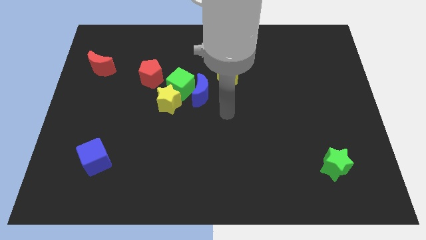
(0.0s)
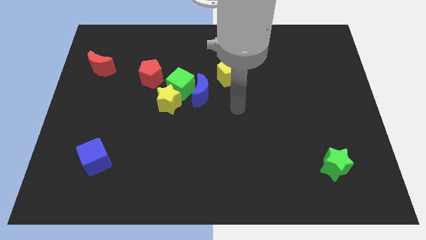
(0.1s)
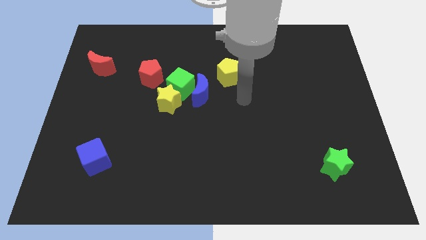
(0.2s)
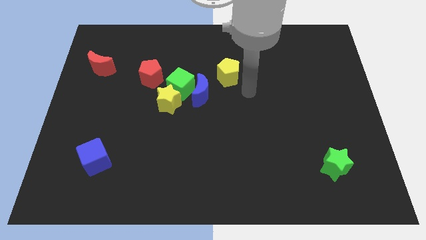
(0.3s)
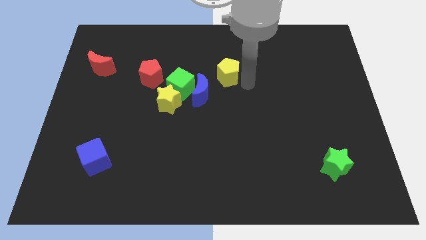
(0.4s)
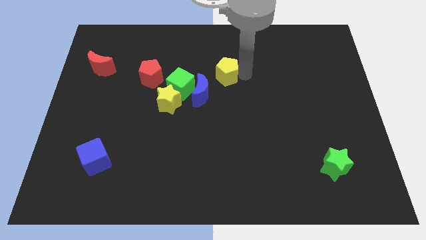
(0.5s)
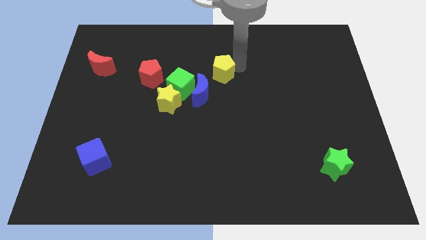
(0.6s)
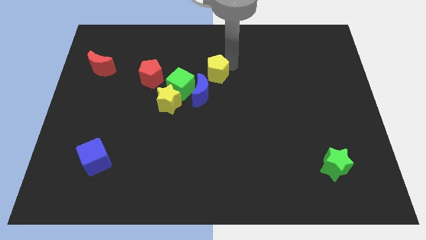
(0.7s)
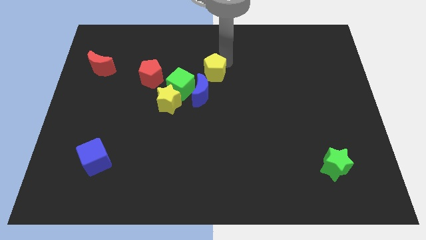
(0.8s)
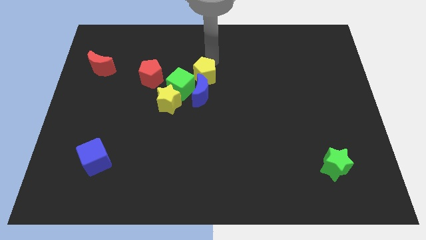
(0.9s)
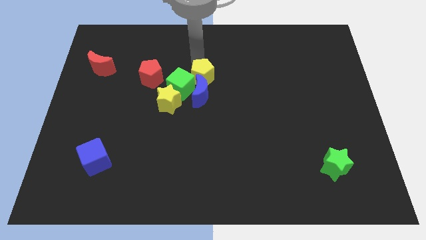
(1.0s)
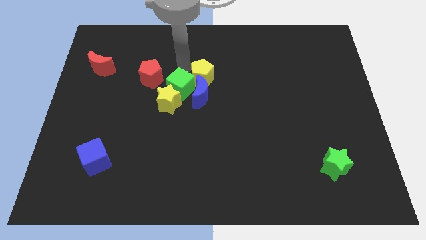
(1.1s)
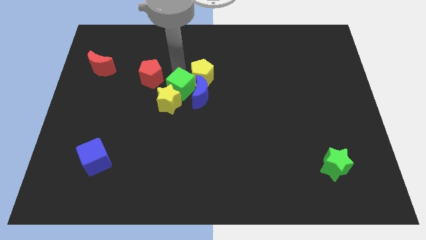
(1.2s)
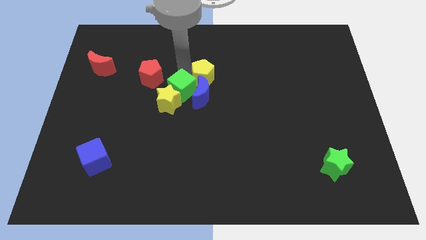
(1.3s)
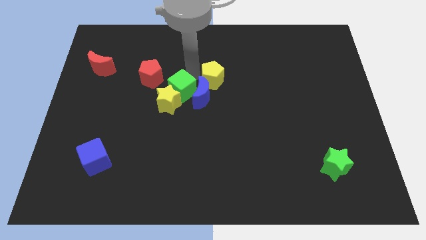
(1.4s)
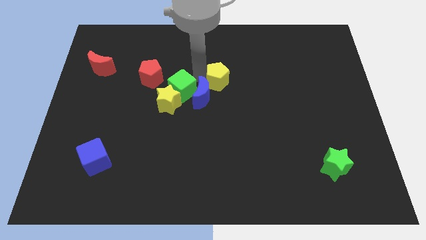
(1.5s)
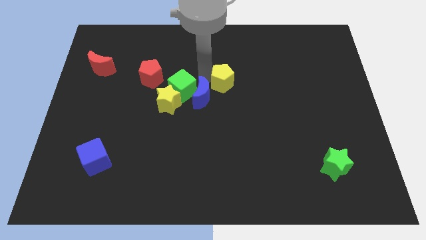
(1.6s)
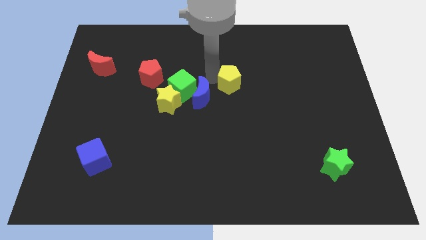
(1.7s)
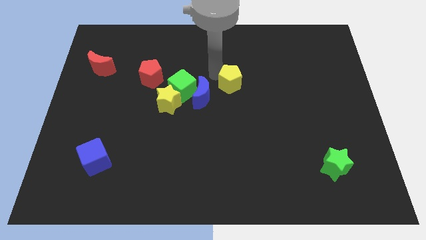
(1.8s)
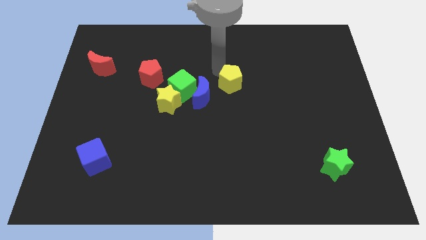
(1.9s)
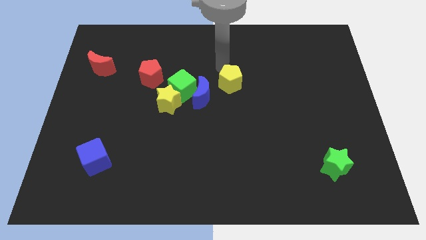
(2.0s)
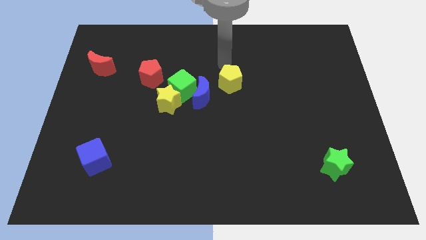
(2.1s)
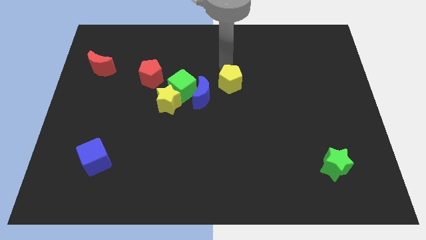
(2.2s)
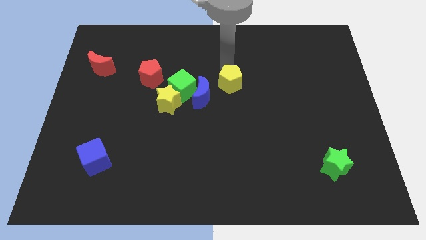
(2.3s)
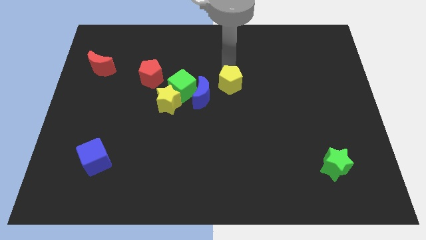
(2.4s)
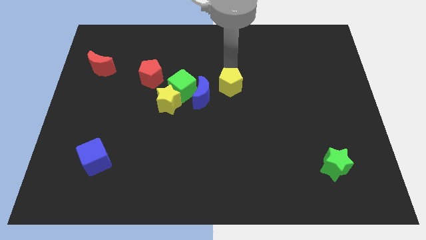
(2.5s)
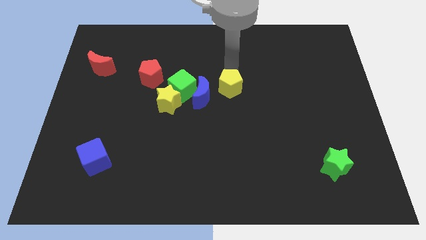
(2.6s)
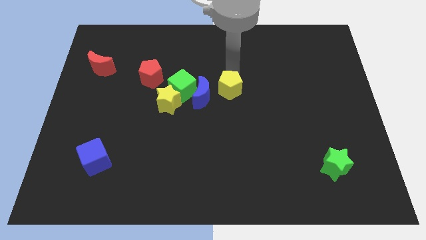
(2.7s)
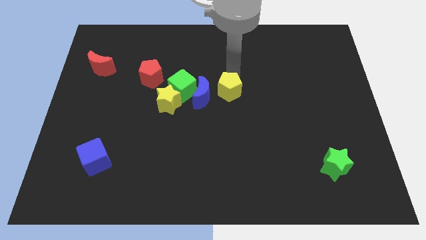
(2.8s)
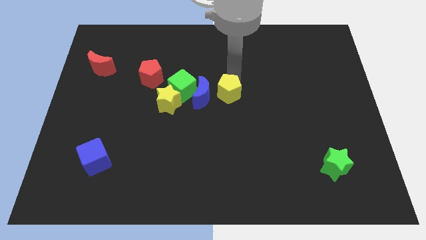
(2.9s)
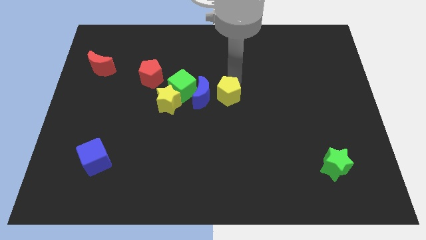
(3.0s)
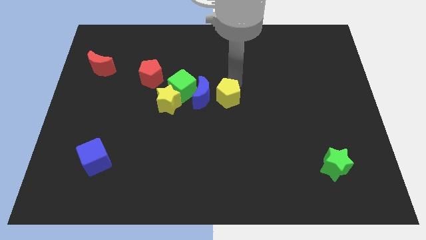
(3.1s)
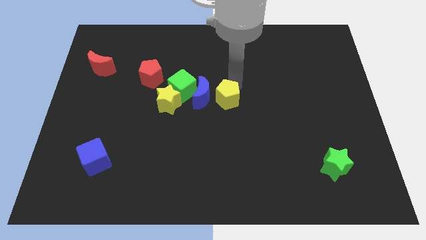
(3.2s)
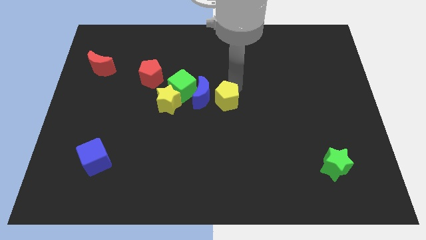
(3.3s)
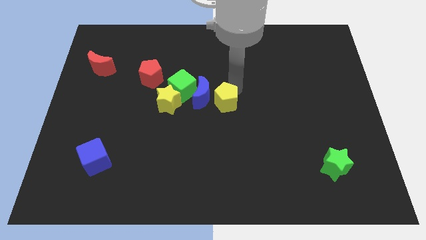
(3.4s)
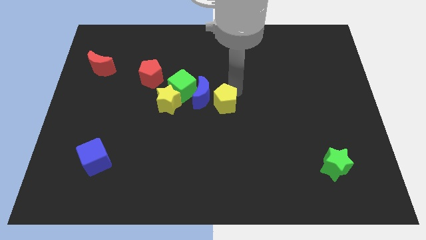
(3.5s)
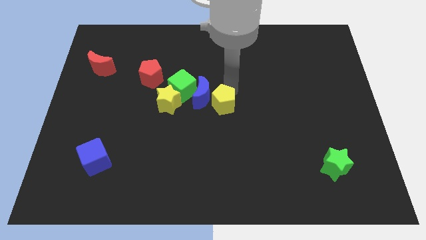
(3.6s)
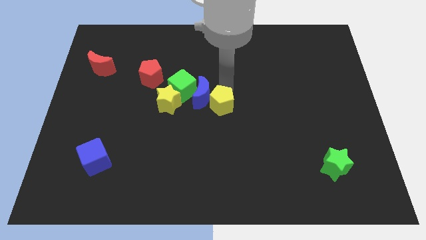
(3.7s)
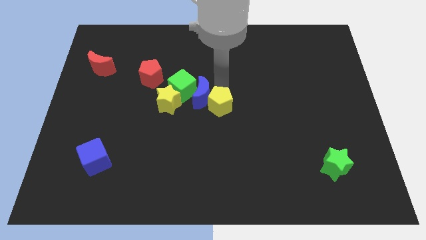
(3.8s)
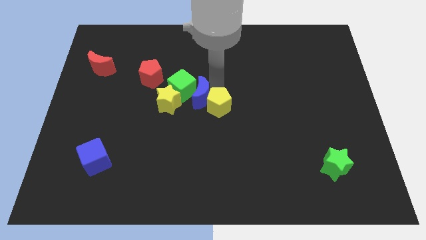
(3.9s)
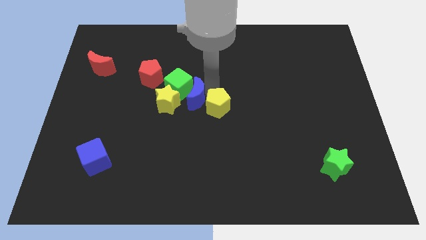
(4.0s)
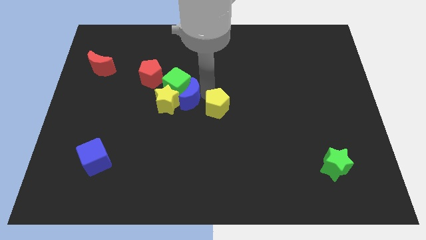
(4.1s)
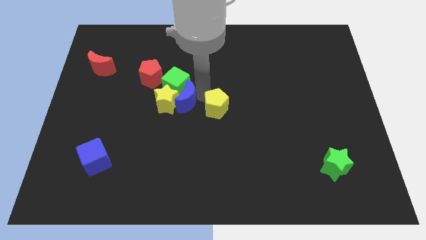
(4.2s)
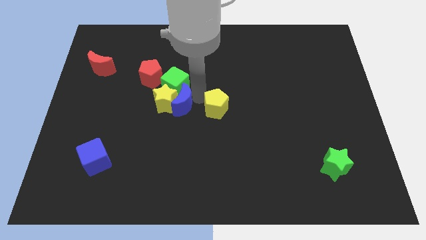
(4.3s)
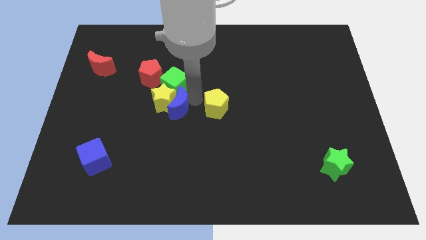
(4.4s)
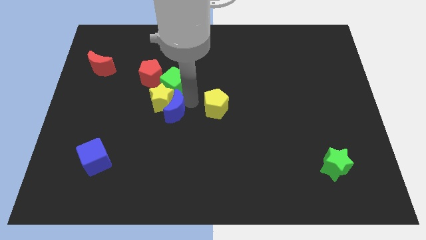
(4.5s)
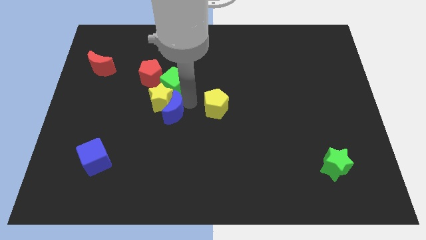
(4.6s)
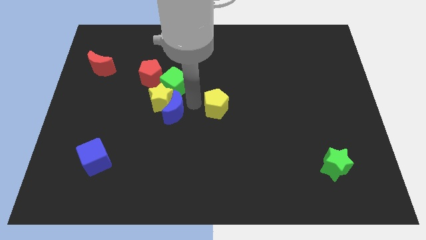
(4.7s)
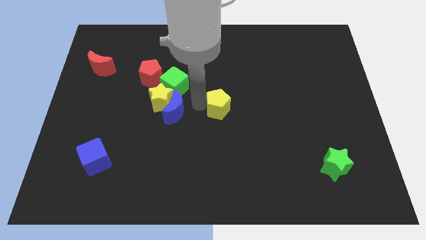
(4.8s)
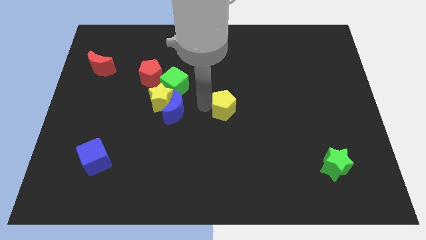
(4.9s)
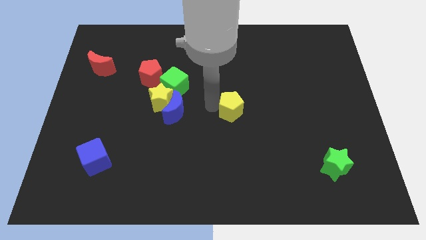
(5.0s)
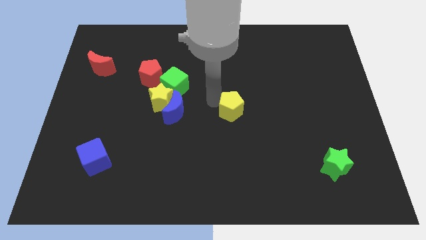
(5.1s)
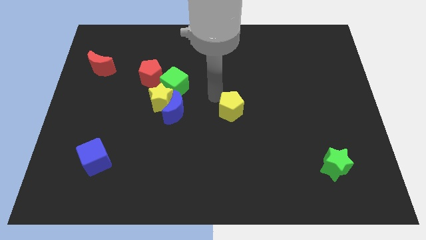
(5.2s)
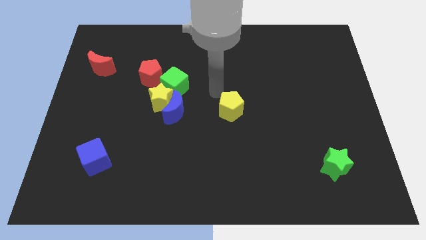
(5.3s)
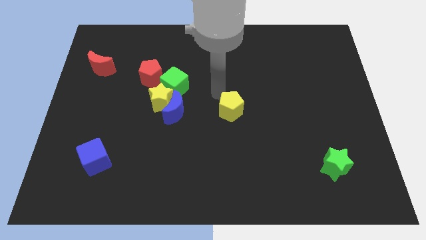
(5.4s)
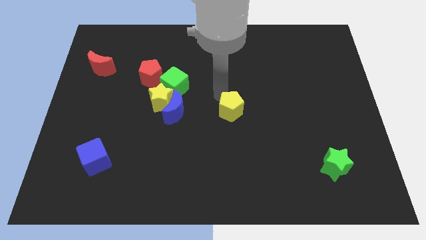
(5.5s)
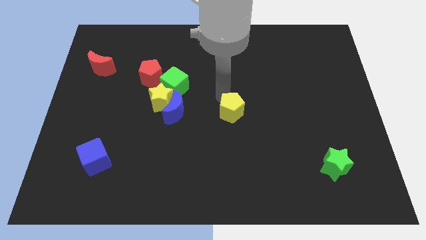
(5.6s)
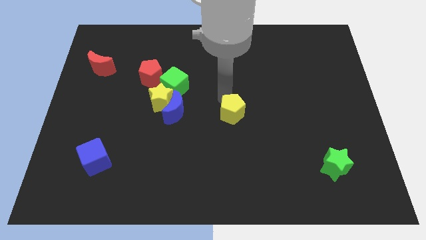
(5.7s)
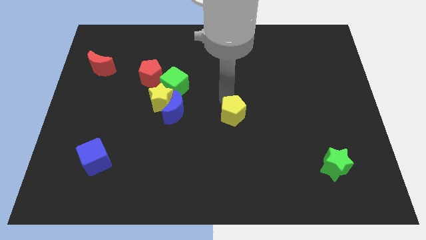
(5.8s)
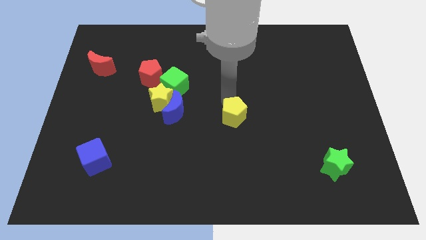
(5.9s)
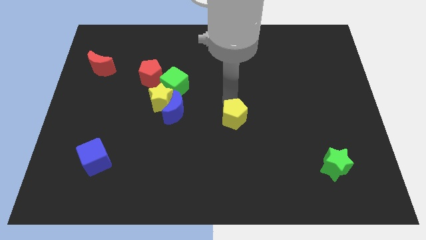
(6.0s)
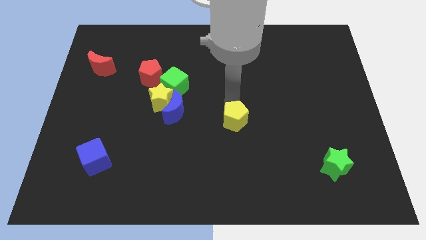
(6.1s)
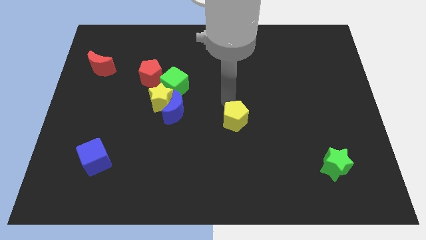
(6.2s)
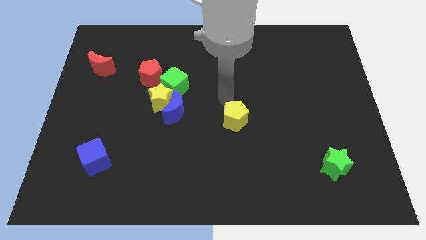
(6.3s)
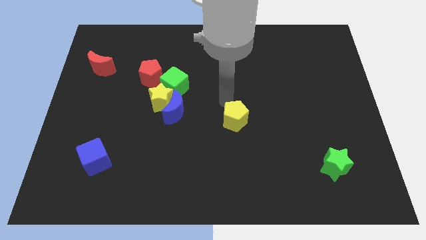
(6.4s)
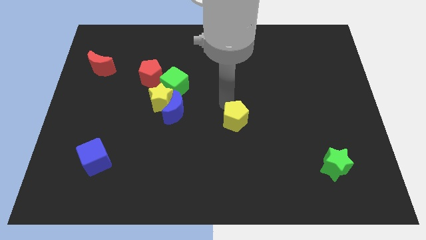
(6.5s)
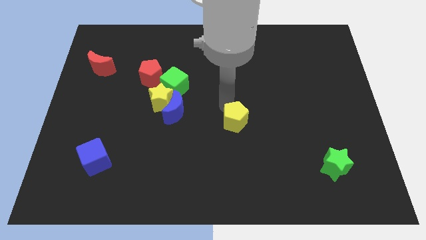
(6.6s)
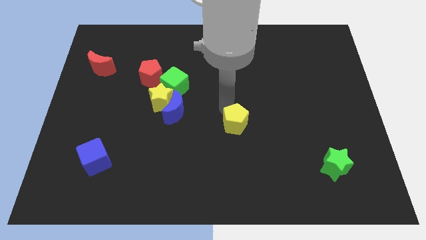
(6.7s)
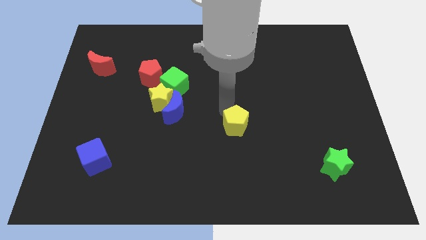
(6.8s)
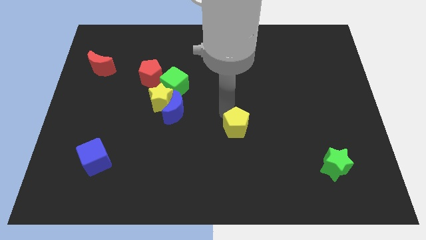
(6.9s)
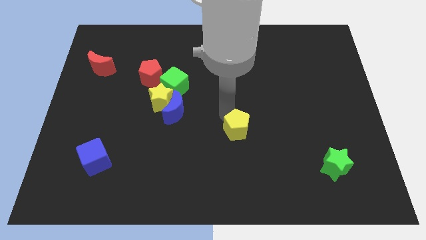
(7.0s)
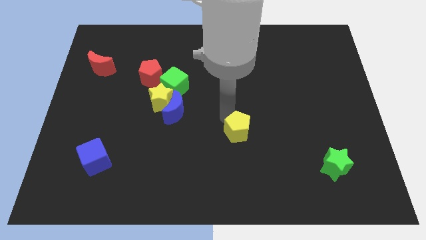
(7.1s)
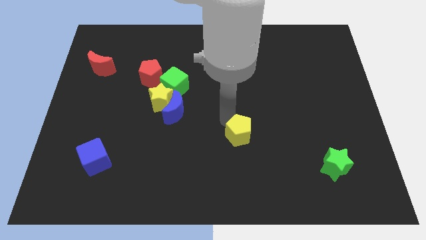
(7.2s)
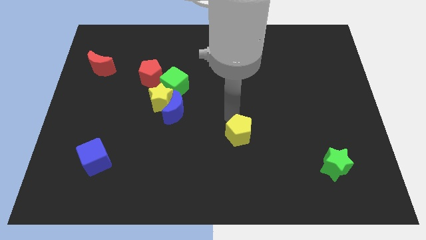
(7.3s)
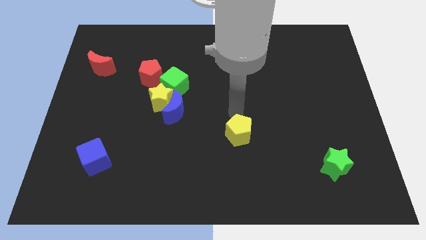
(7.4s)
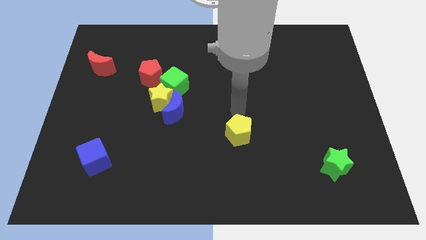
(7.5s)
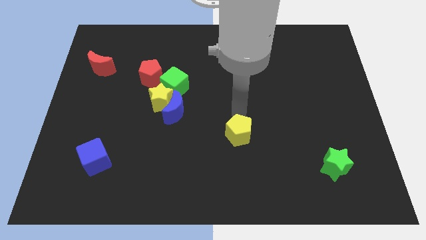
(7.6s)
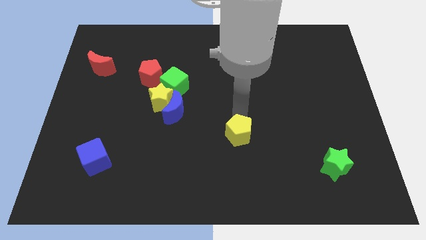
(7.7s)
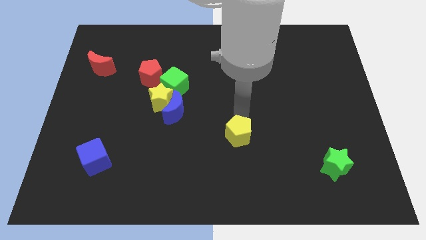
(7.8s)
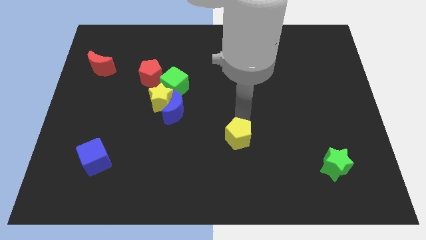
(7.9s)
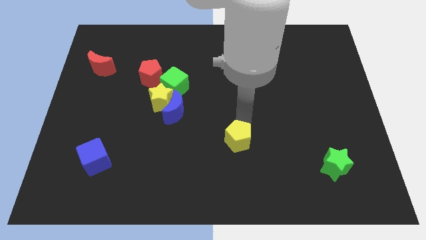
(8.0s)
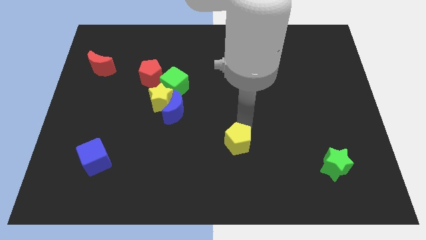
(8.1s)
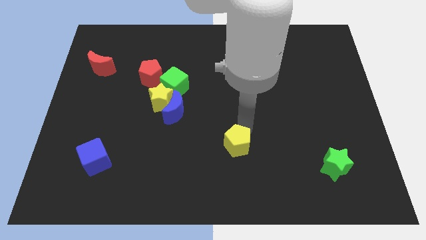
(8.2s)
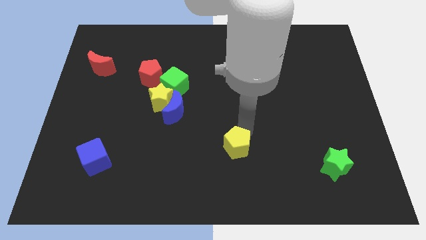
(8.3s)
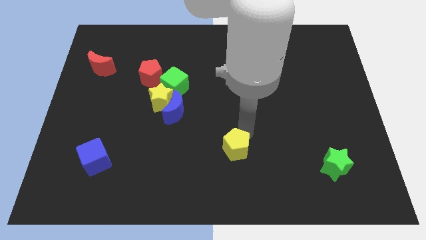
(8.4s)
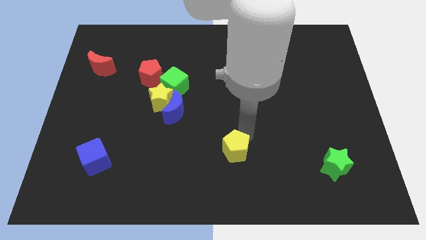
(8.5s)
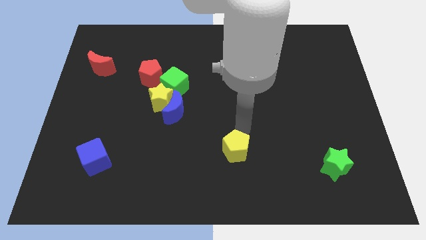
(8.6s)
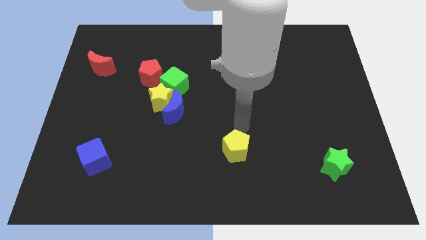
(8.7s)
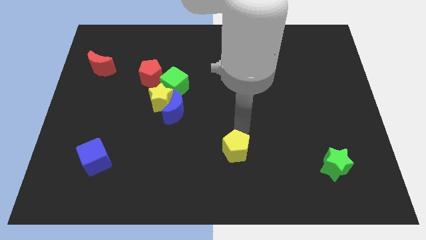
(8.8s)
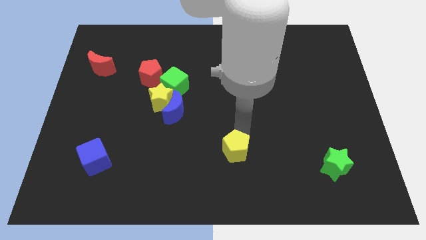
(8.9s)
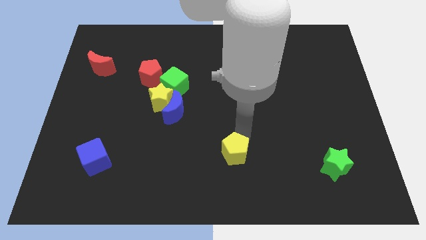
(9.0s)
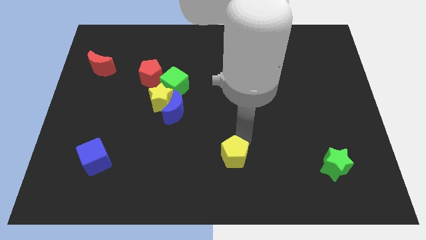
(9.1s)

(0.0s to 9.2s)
move the yellow pentagon to the bottom
